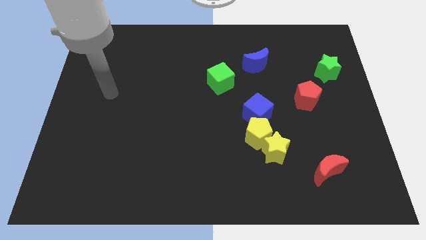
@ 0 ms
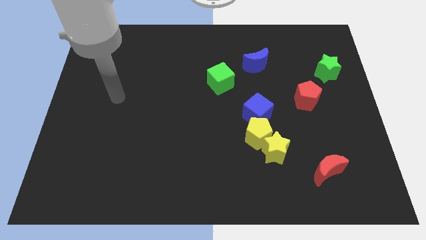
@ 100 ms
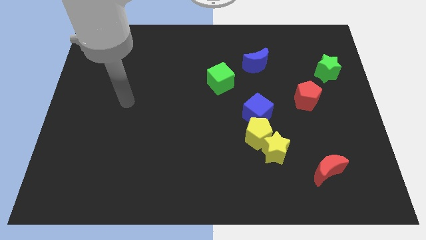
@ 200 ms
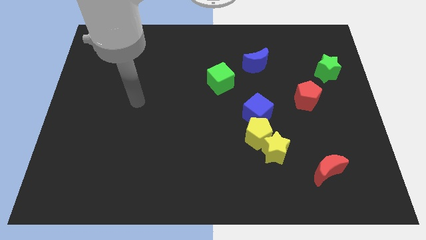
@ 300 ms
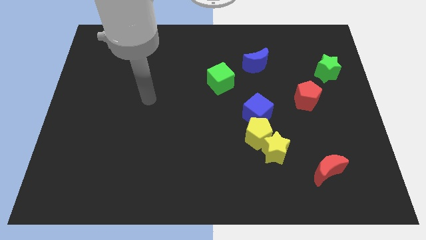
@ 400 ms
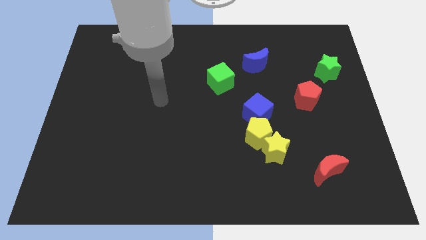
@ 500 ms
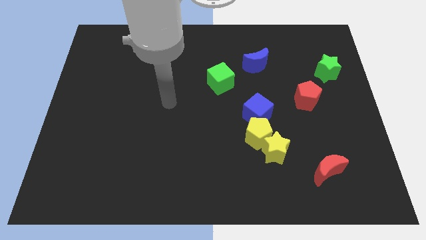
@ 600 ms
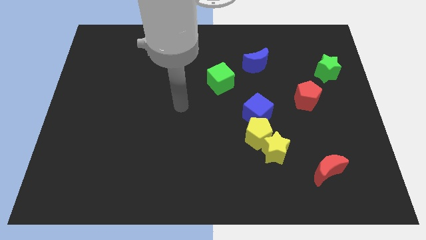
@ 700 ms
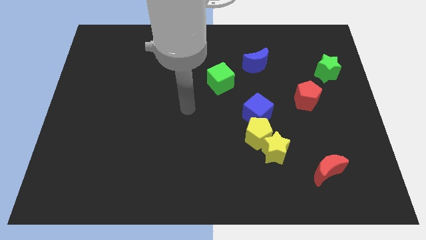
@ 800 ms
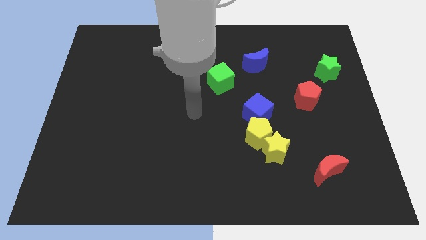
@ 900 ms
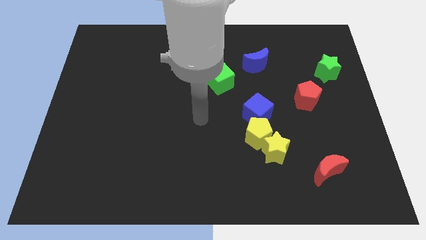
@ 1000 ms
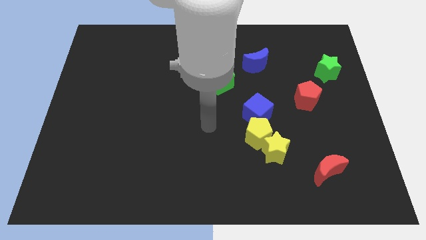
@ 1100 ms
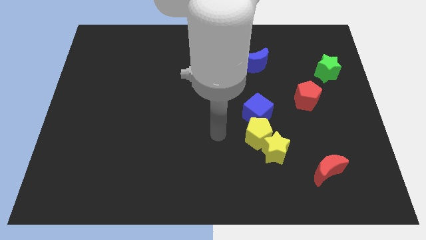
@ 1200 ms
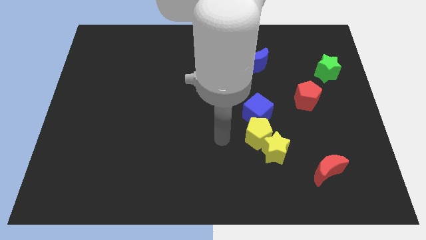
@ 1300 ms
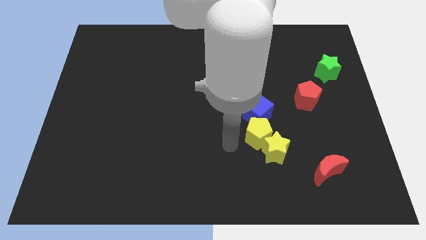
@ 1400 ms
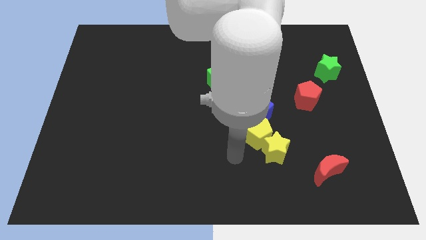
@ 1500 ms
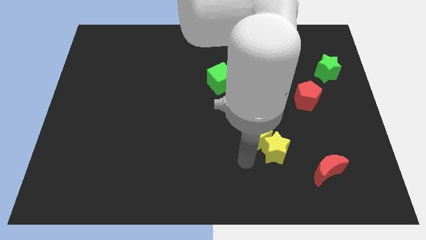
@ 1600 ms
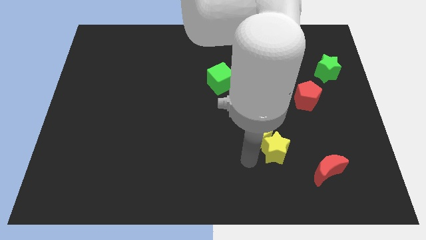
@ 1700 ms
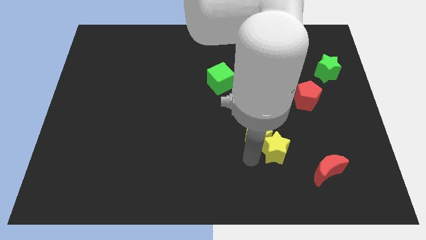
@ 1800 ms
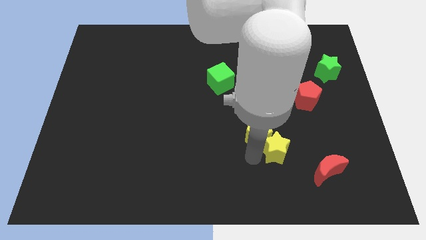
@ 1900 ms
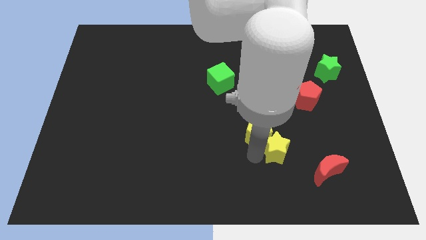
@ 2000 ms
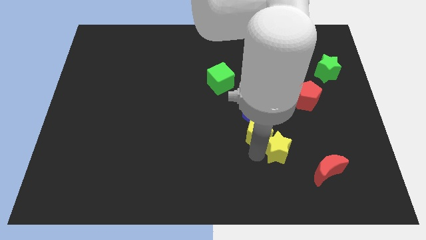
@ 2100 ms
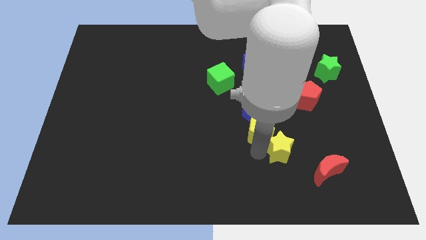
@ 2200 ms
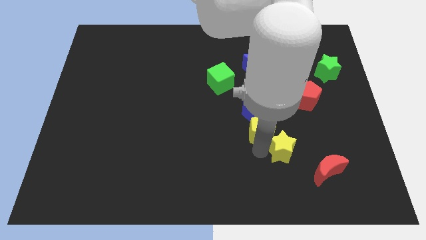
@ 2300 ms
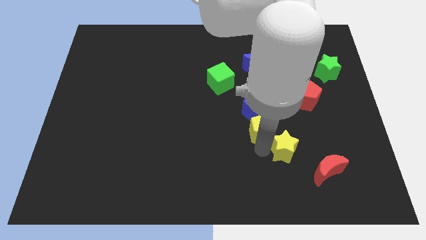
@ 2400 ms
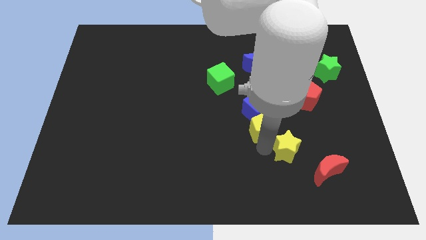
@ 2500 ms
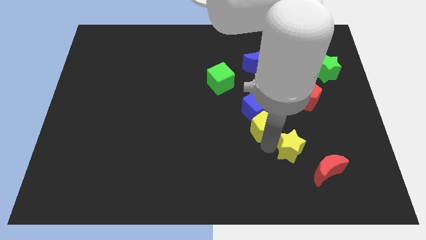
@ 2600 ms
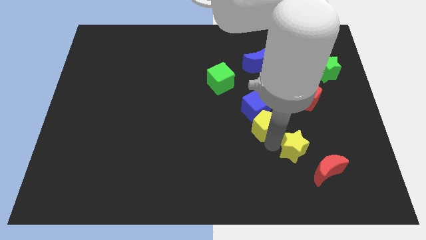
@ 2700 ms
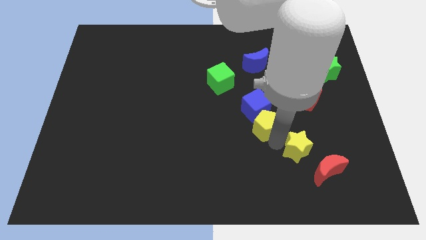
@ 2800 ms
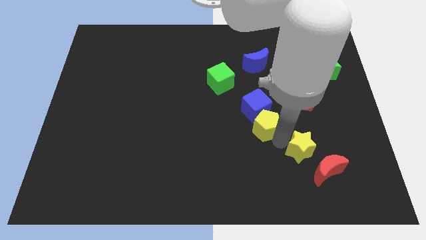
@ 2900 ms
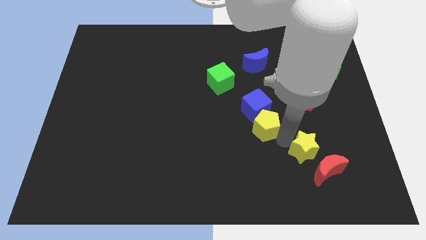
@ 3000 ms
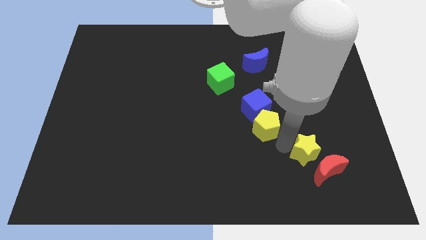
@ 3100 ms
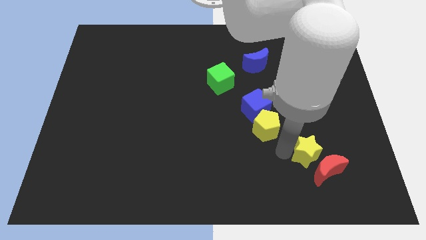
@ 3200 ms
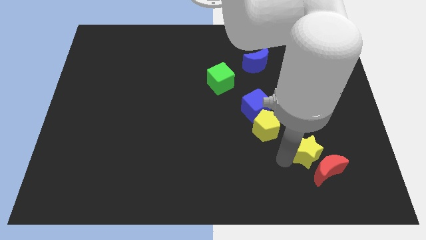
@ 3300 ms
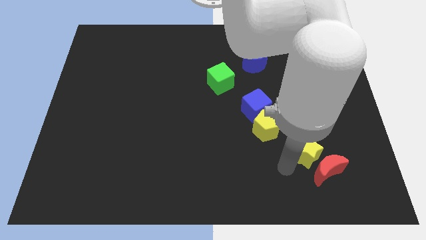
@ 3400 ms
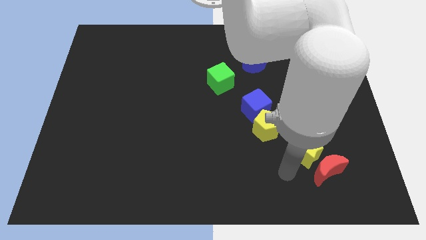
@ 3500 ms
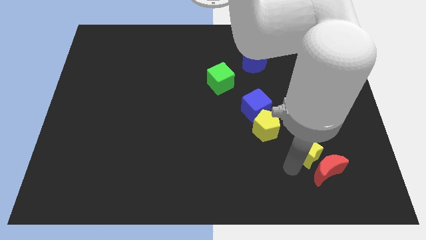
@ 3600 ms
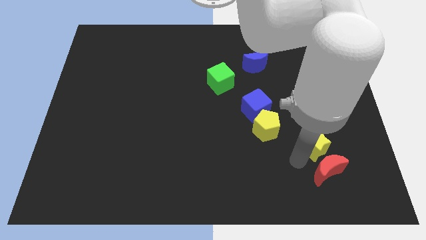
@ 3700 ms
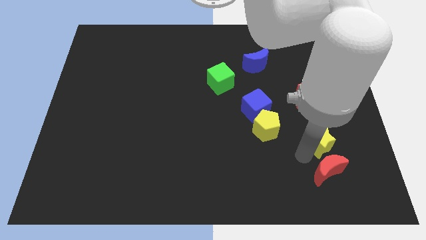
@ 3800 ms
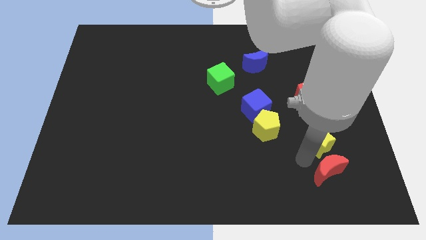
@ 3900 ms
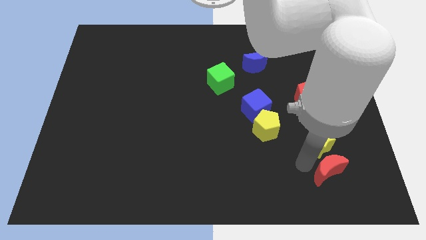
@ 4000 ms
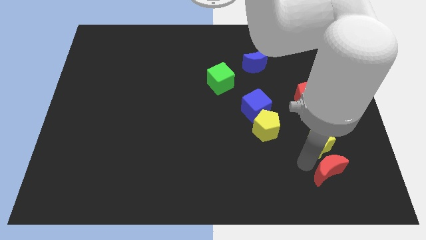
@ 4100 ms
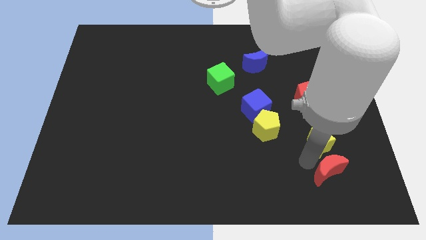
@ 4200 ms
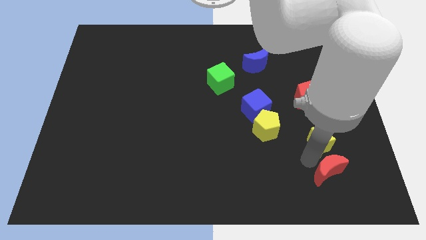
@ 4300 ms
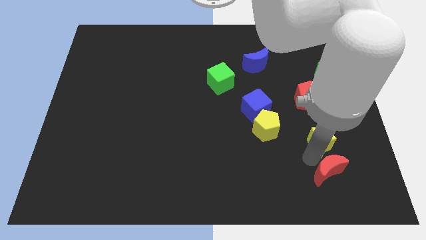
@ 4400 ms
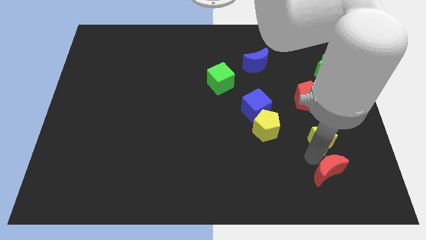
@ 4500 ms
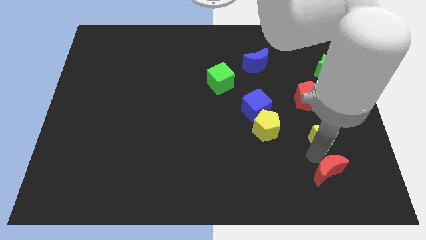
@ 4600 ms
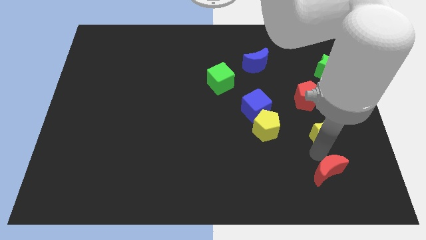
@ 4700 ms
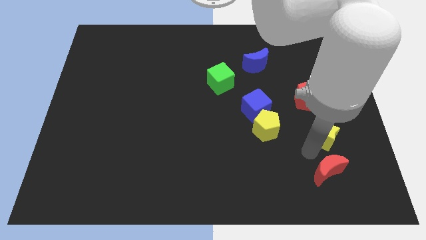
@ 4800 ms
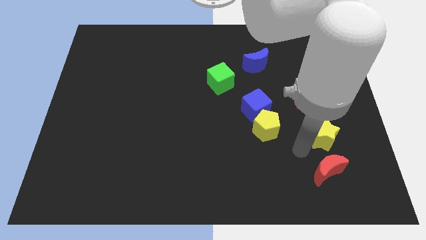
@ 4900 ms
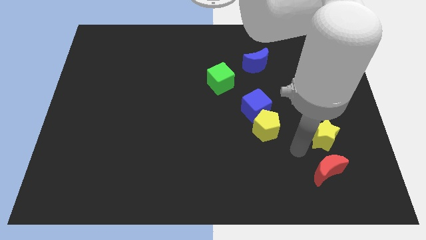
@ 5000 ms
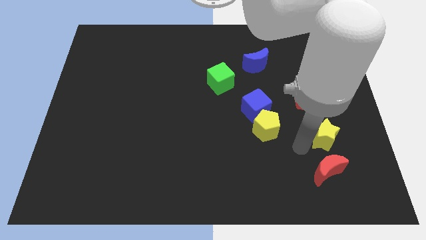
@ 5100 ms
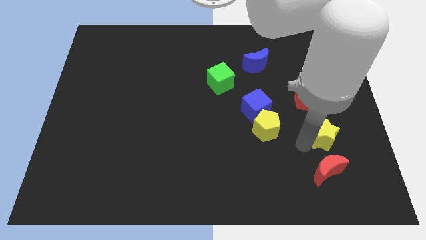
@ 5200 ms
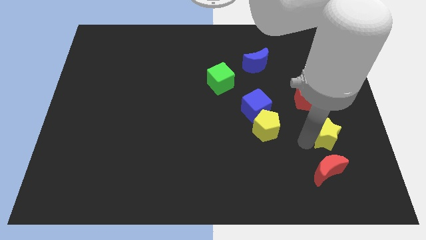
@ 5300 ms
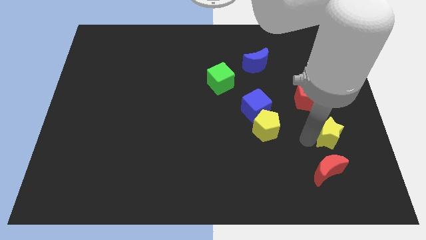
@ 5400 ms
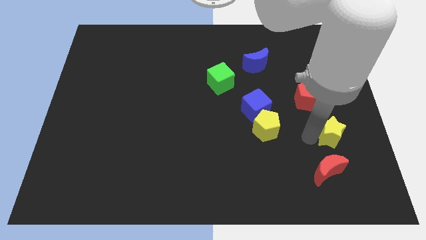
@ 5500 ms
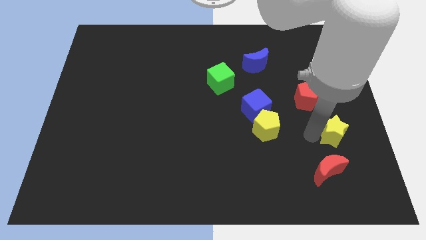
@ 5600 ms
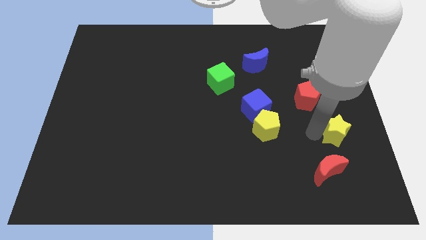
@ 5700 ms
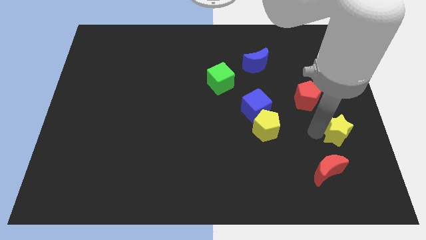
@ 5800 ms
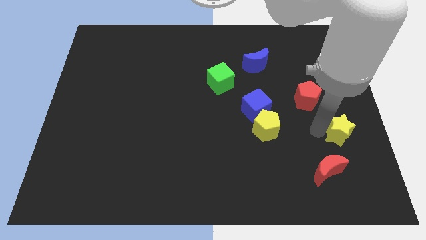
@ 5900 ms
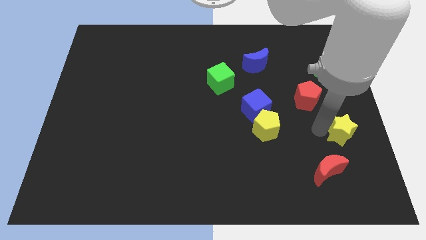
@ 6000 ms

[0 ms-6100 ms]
slide the yellow star to the right side

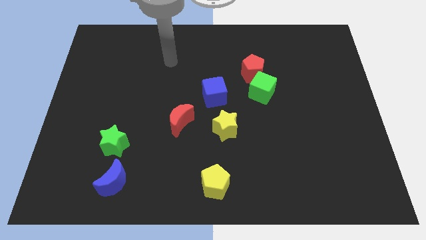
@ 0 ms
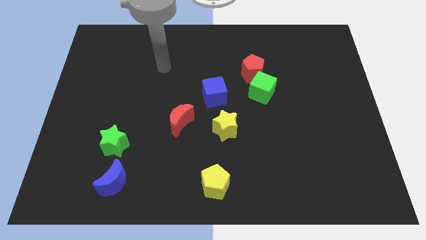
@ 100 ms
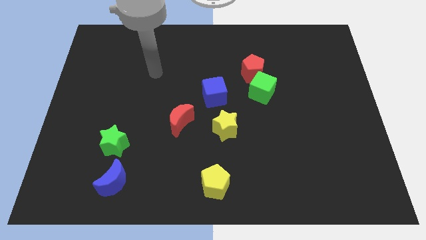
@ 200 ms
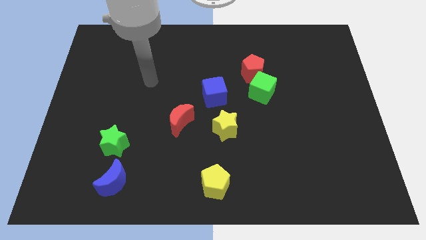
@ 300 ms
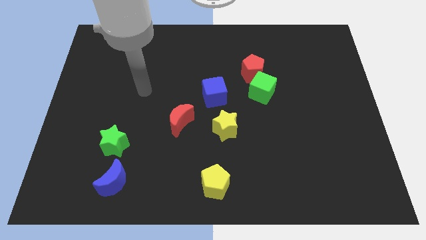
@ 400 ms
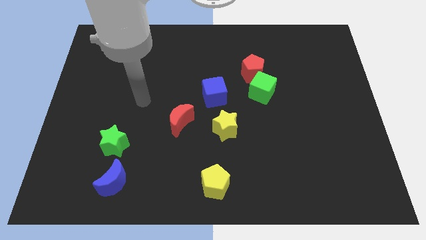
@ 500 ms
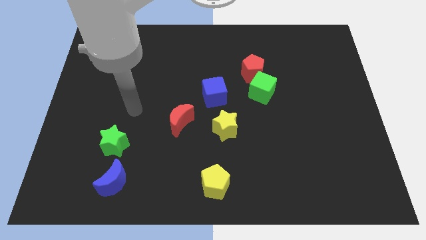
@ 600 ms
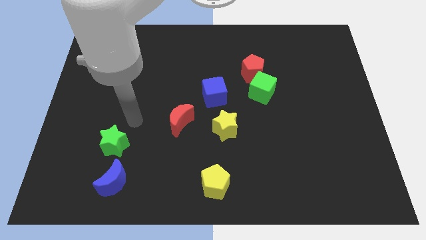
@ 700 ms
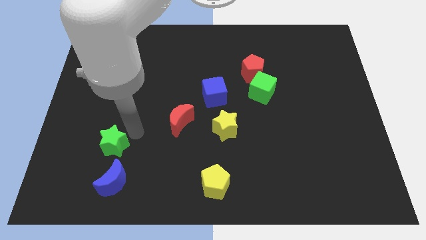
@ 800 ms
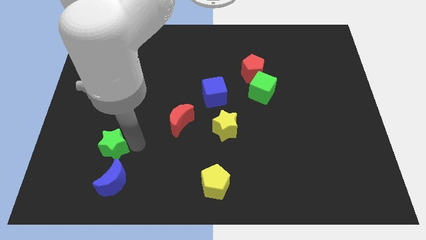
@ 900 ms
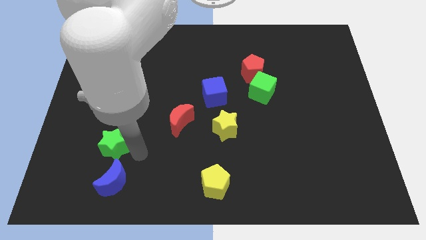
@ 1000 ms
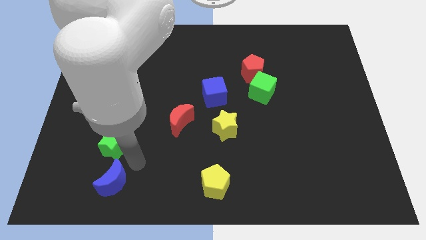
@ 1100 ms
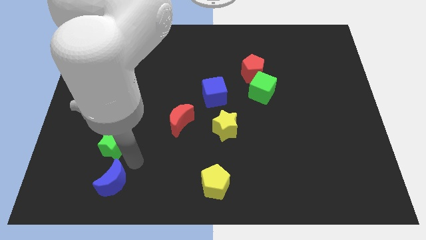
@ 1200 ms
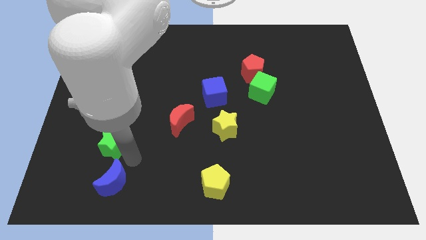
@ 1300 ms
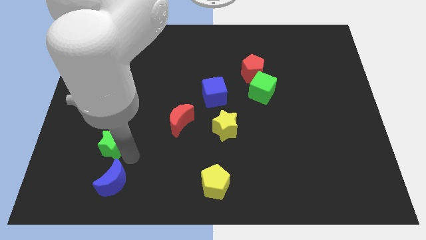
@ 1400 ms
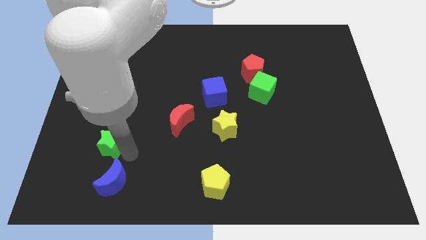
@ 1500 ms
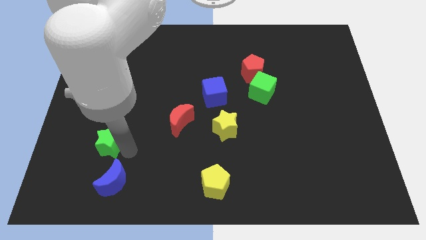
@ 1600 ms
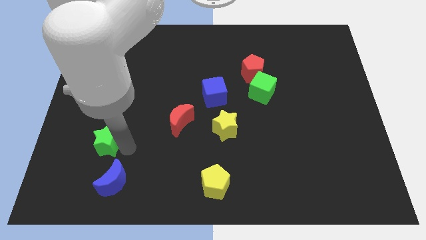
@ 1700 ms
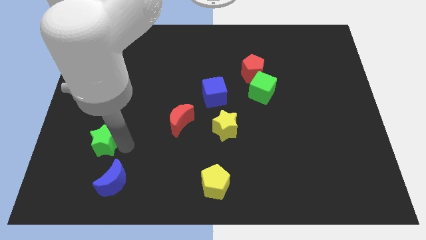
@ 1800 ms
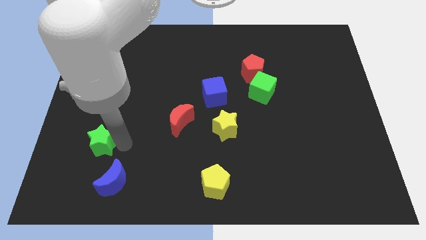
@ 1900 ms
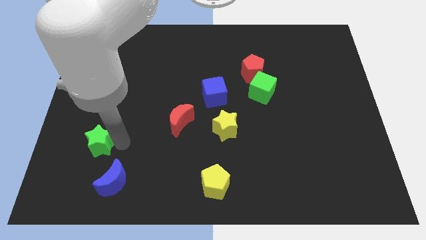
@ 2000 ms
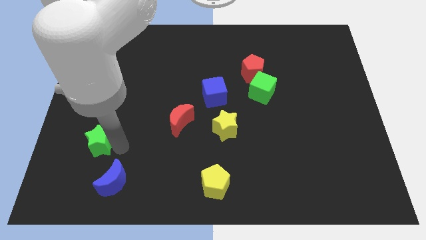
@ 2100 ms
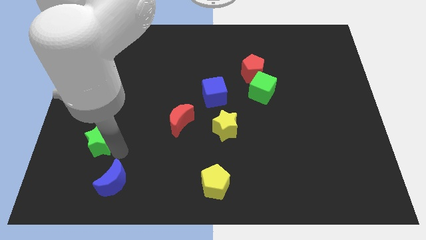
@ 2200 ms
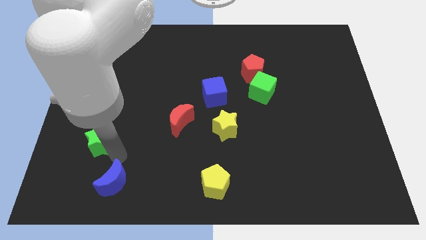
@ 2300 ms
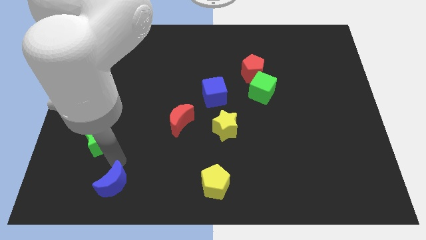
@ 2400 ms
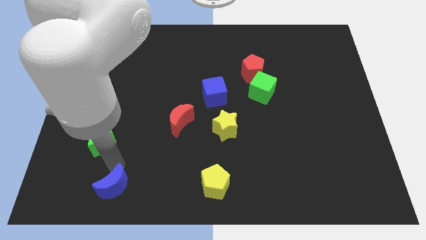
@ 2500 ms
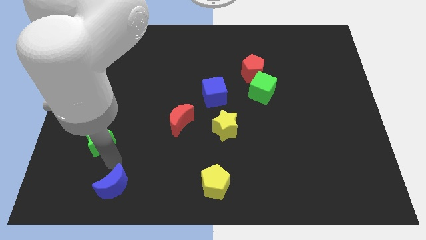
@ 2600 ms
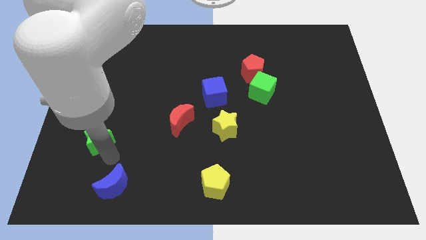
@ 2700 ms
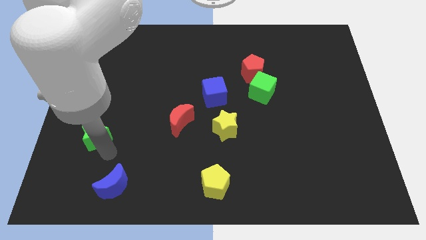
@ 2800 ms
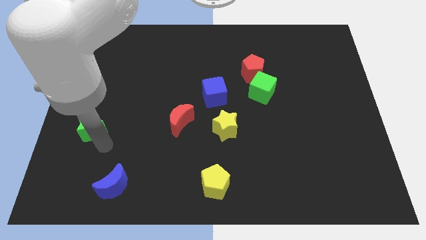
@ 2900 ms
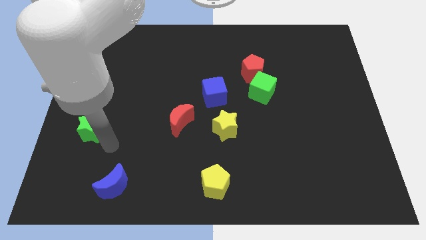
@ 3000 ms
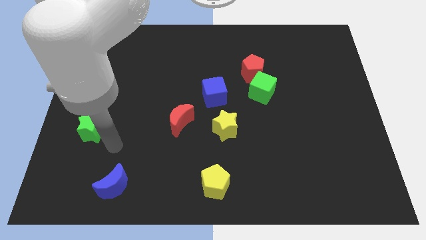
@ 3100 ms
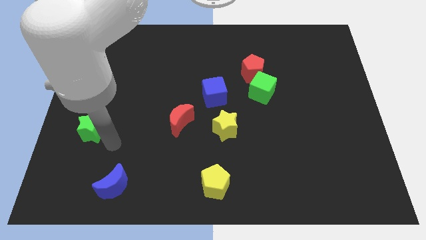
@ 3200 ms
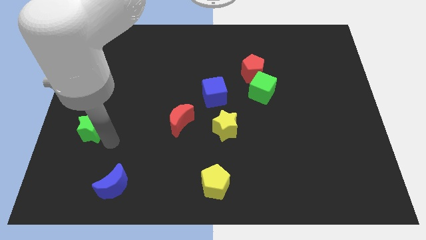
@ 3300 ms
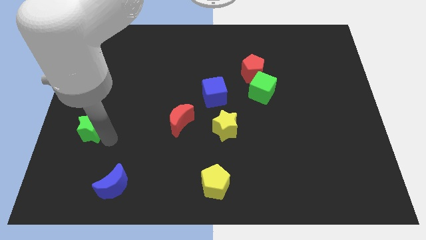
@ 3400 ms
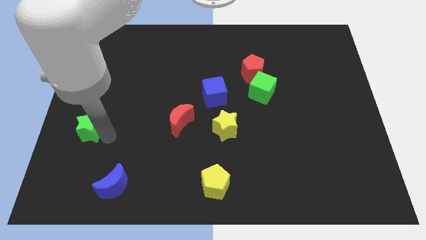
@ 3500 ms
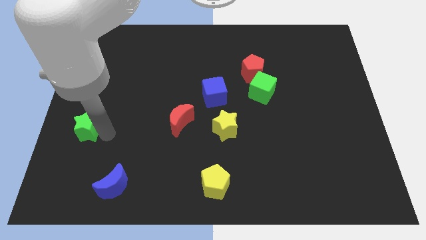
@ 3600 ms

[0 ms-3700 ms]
put the green star to the center left
